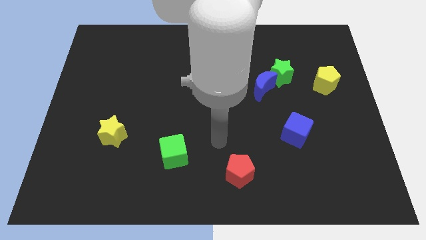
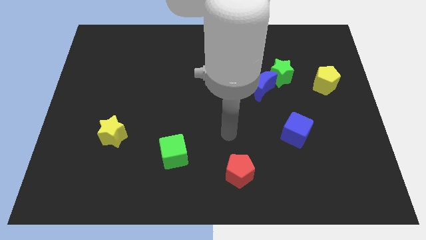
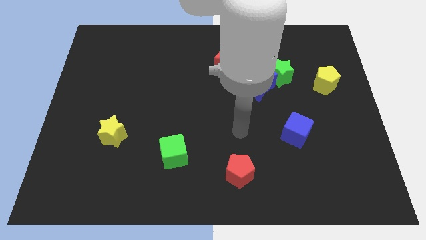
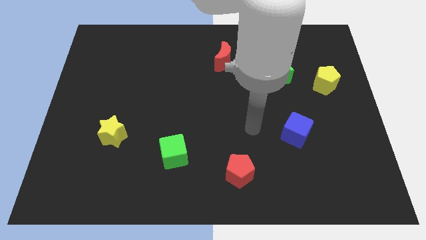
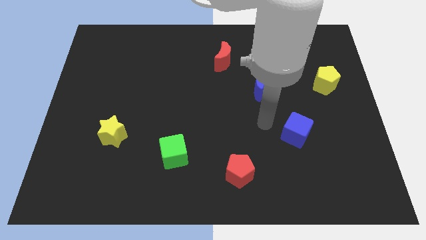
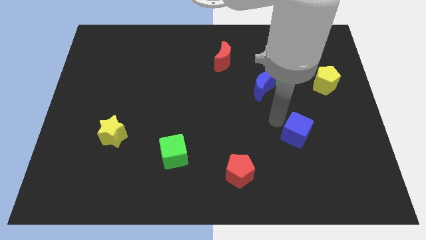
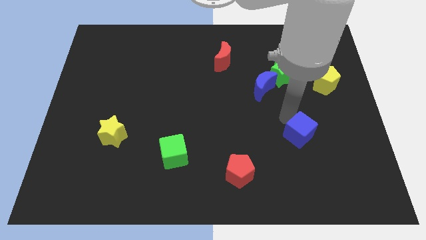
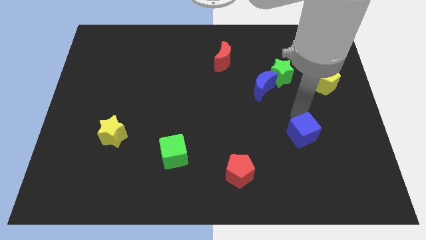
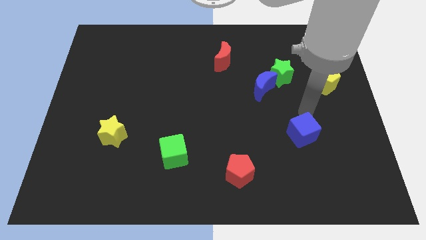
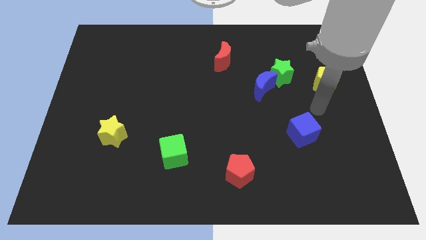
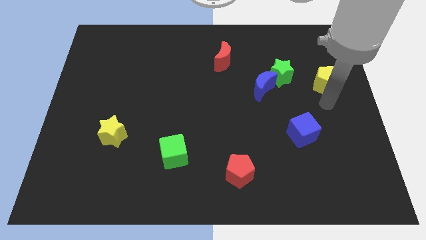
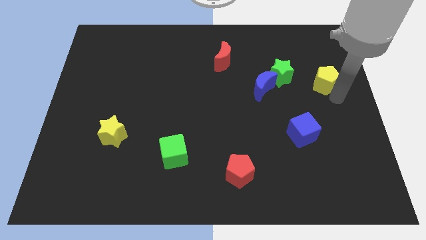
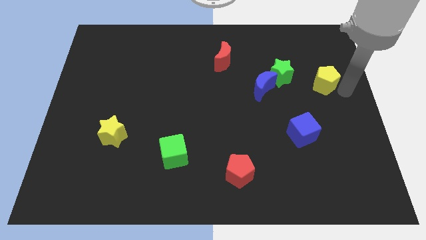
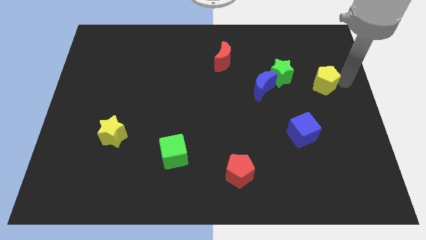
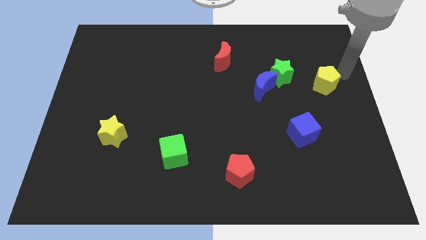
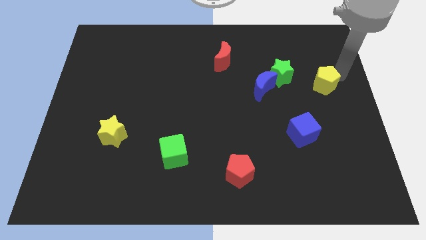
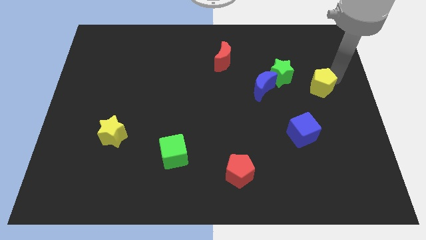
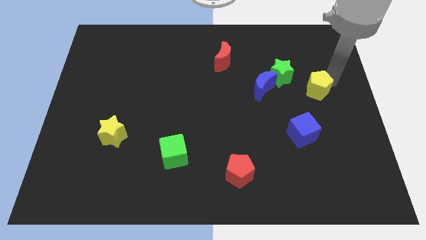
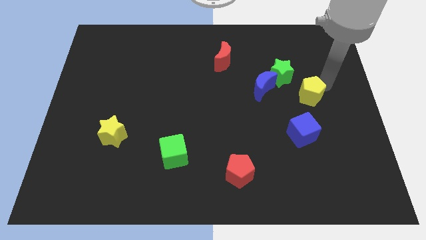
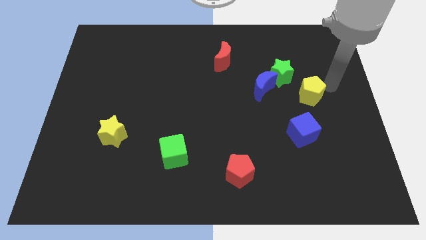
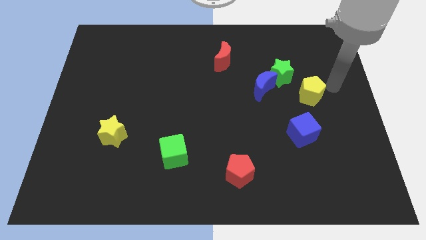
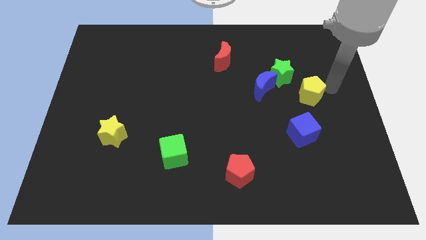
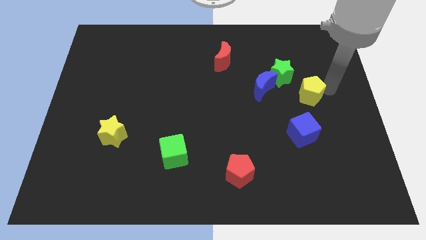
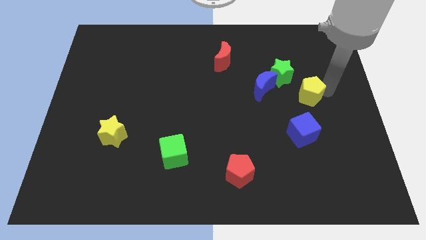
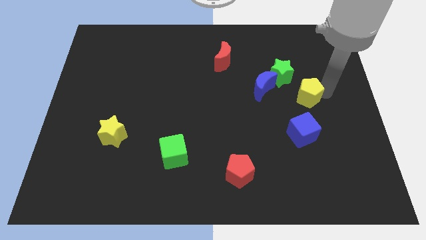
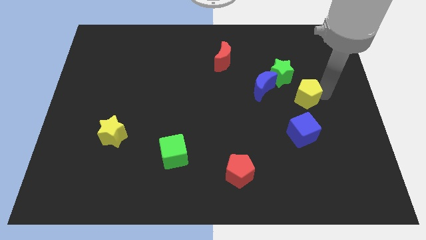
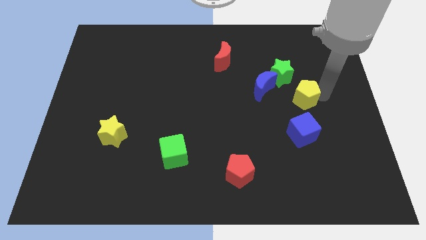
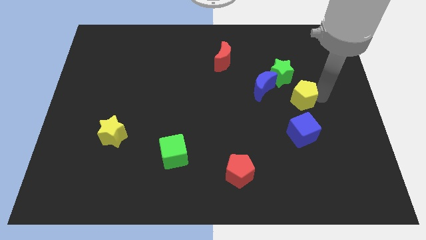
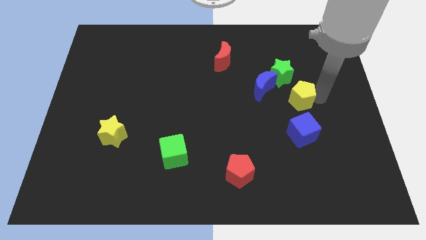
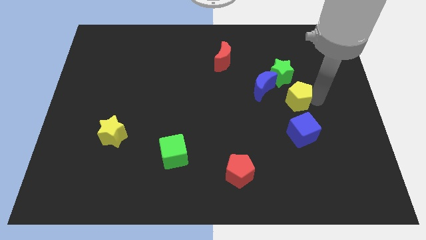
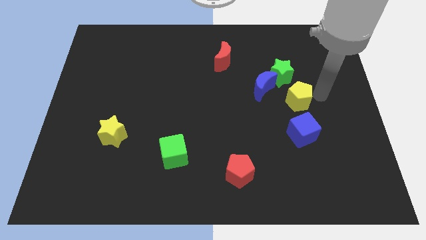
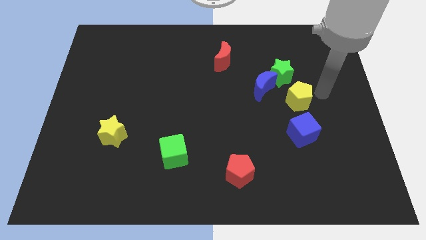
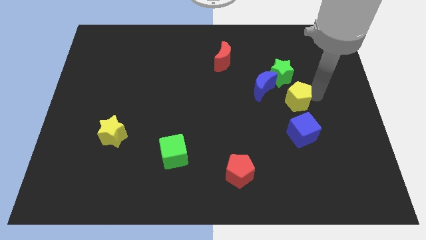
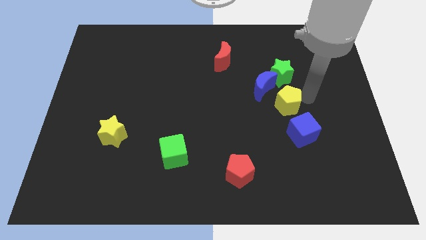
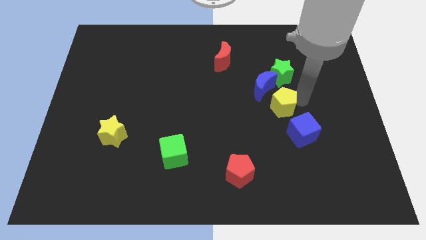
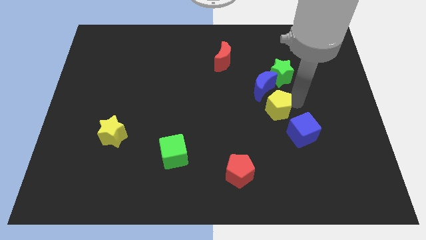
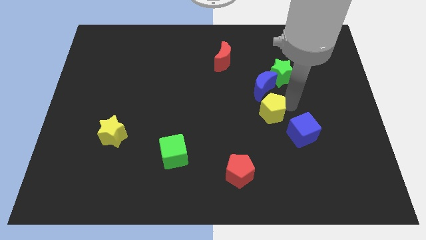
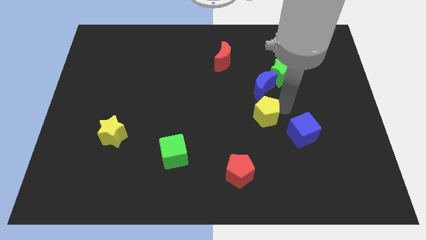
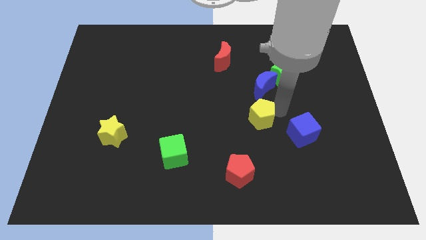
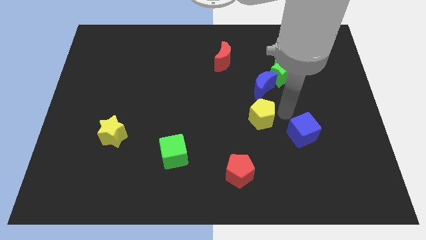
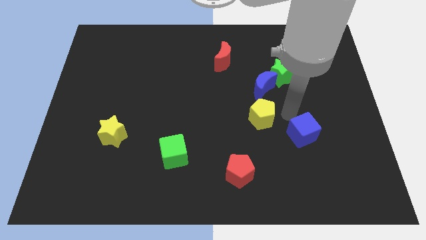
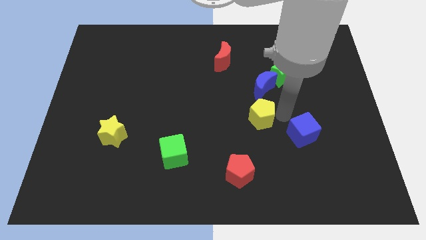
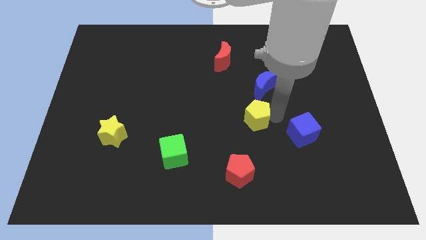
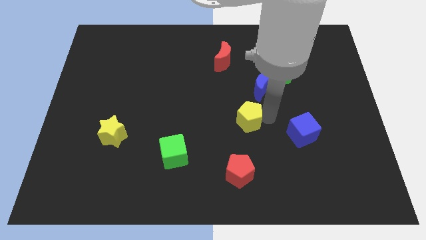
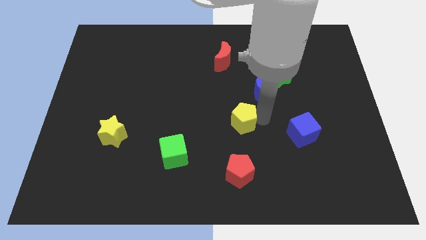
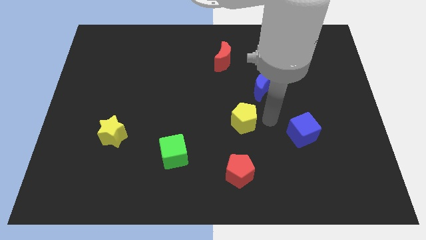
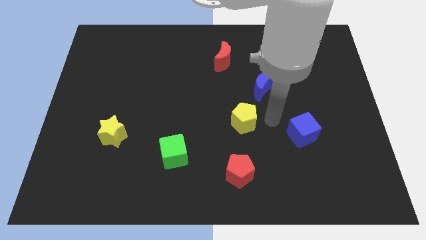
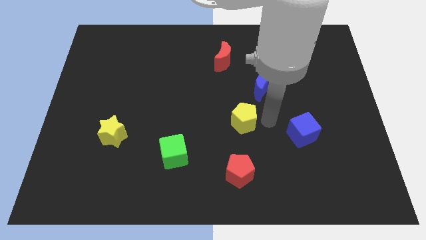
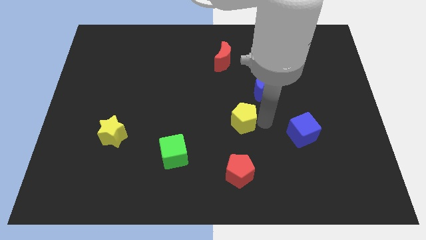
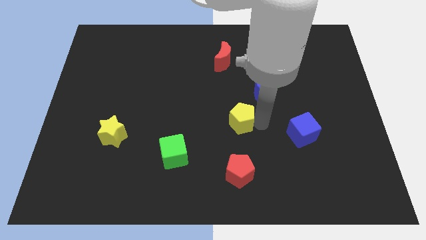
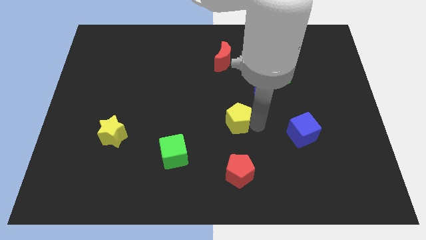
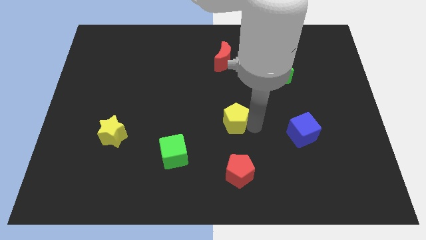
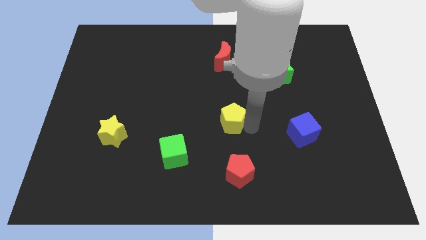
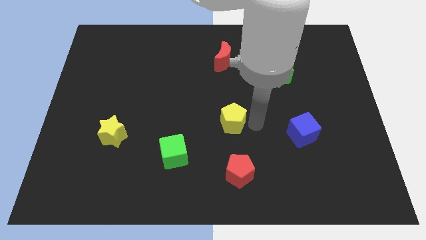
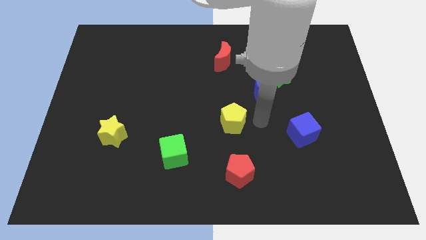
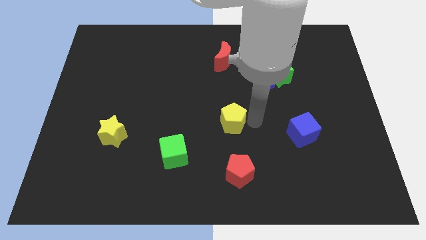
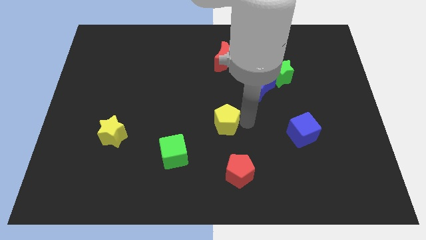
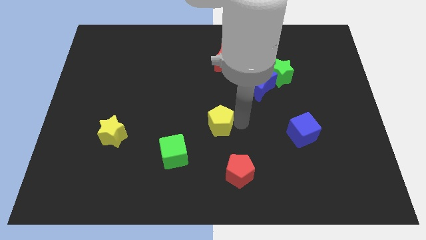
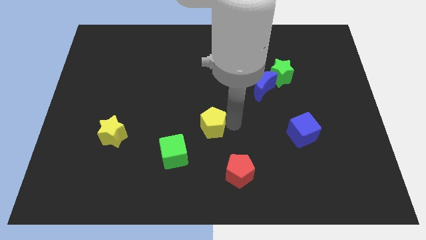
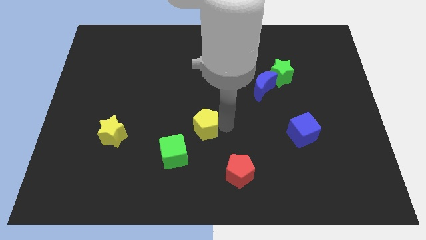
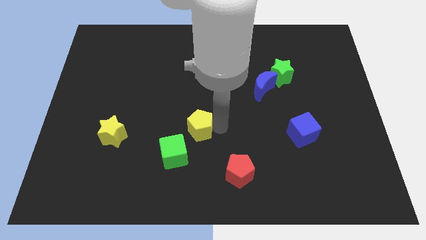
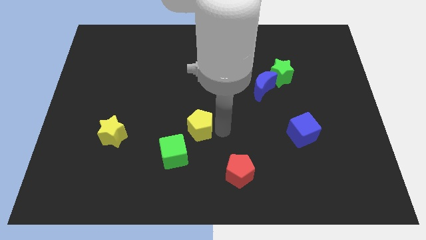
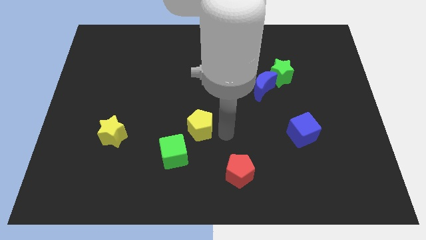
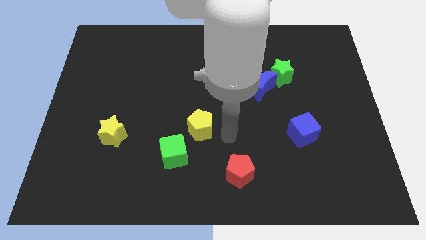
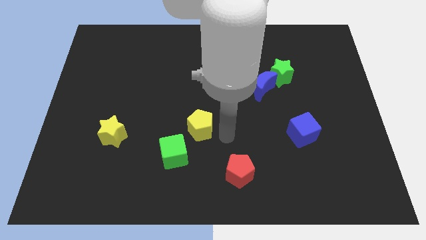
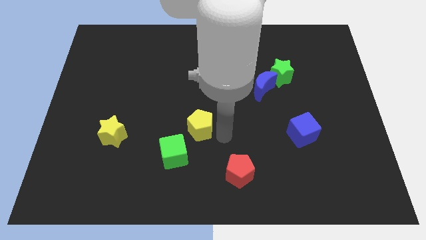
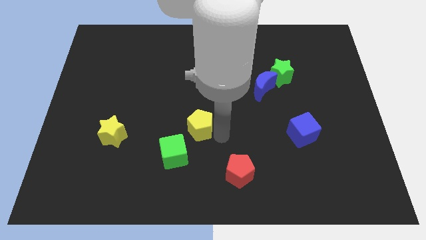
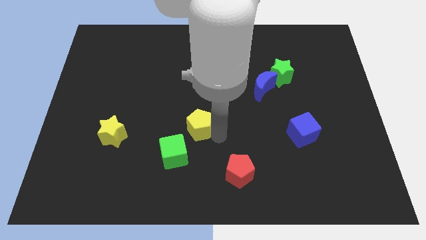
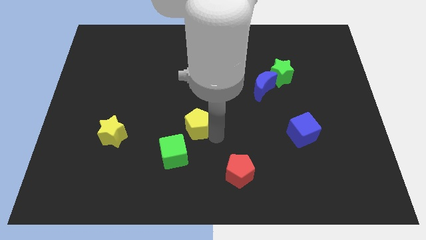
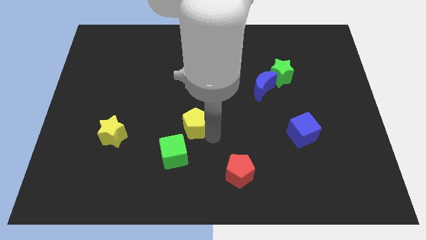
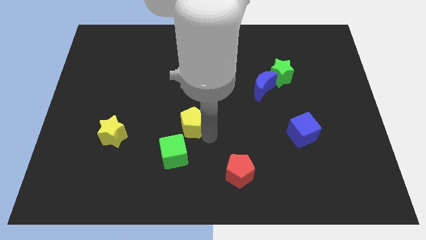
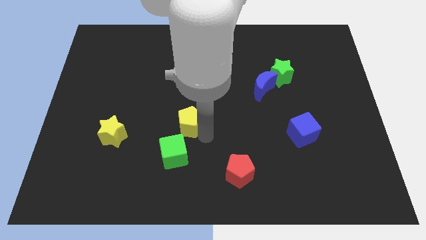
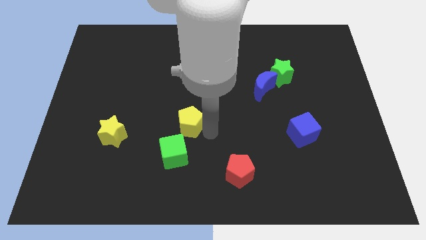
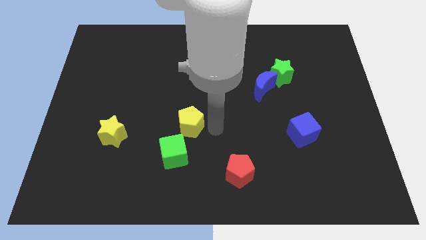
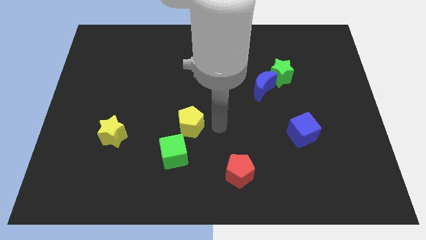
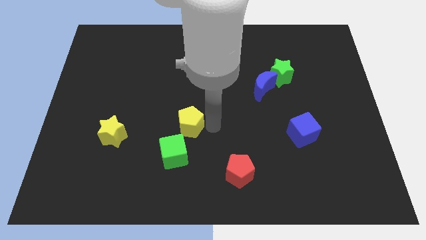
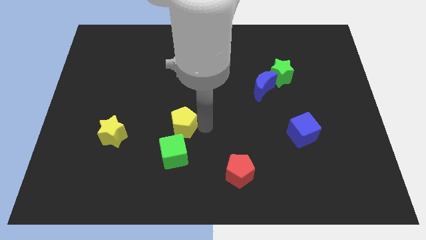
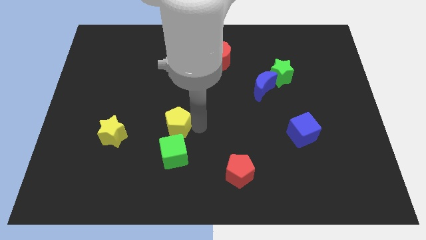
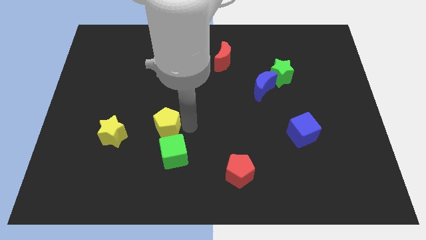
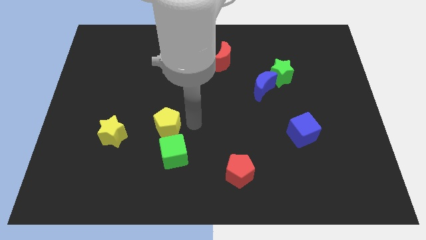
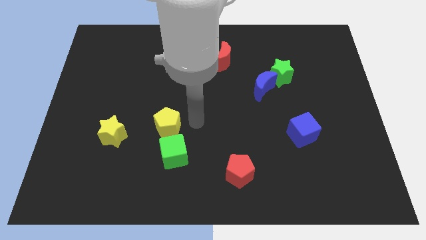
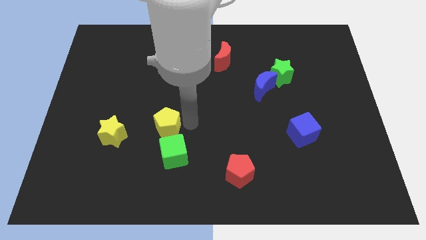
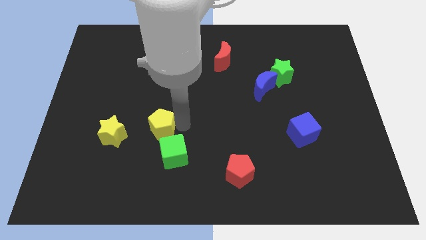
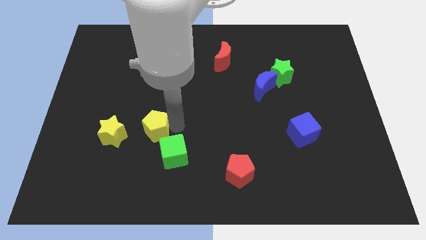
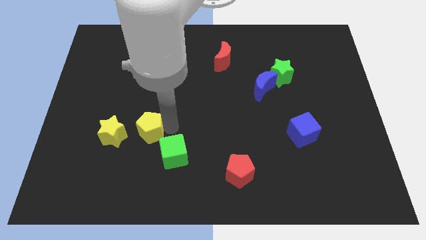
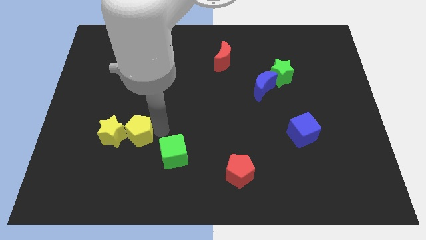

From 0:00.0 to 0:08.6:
slide the yellow pentagon to the yellow star
